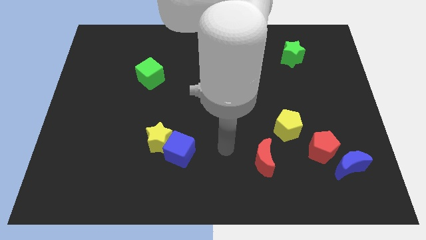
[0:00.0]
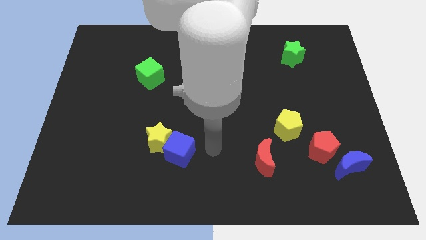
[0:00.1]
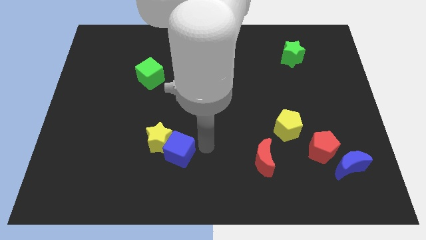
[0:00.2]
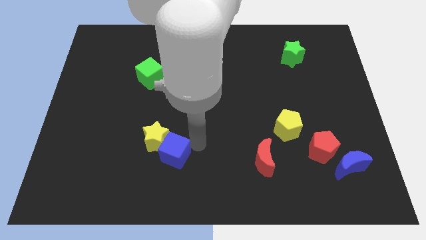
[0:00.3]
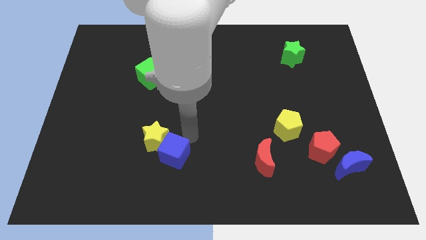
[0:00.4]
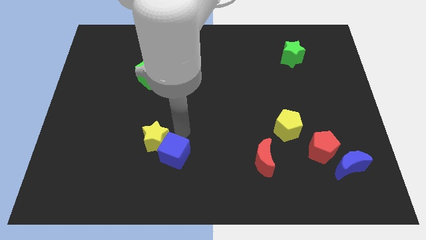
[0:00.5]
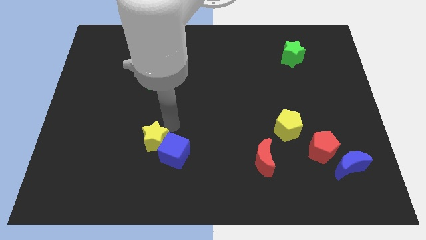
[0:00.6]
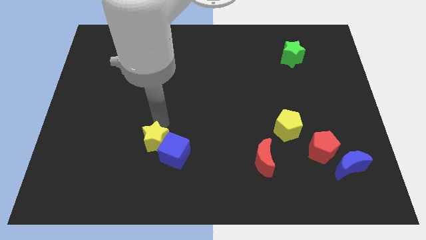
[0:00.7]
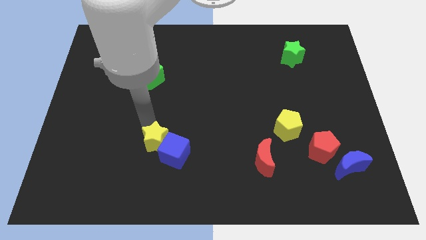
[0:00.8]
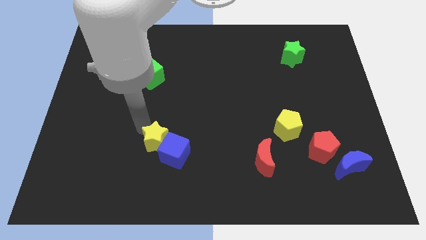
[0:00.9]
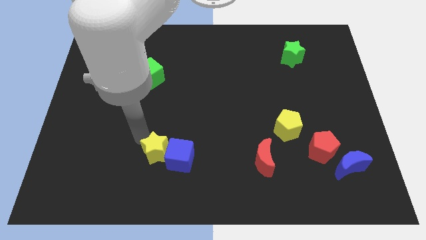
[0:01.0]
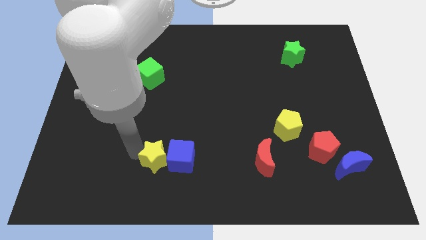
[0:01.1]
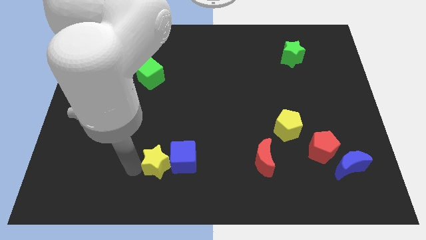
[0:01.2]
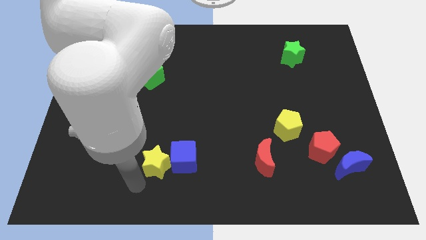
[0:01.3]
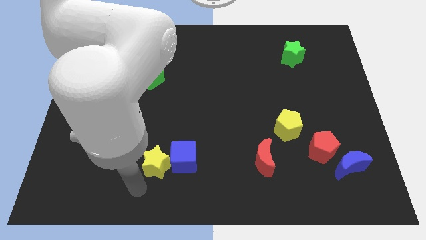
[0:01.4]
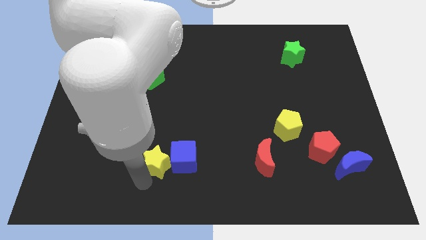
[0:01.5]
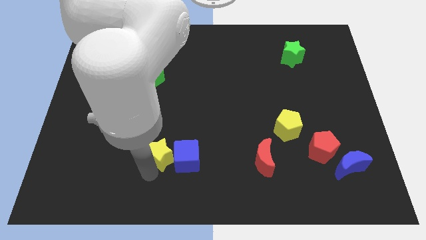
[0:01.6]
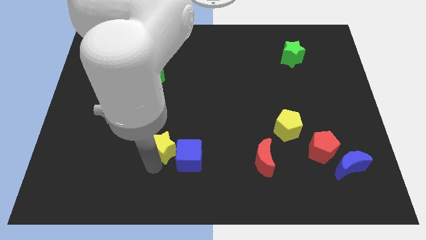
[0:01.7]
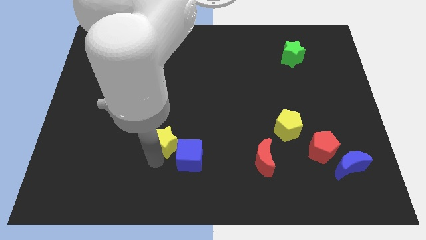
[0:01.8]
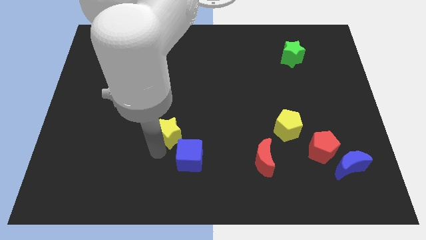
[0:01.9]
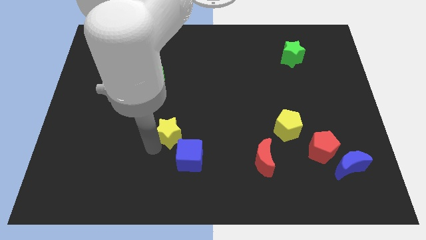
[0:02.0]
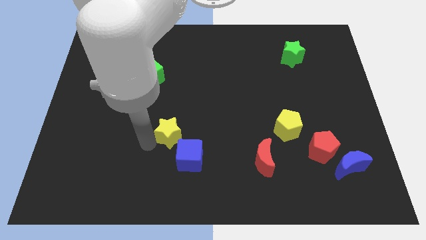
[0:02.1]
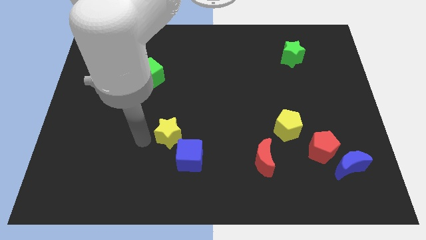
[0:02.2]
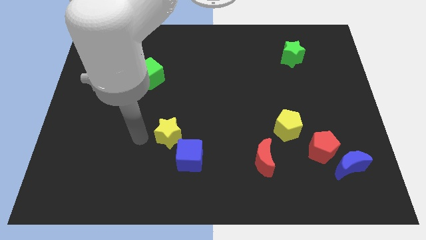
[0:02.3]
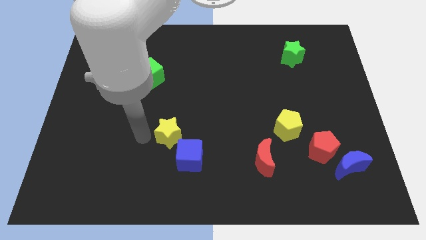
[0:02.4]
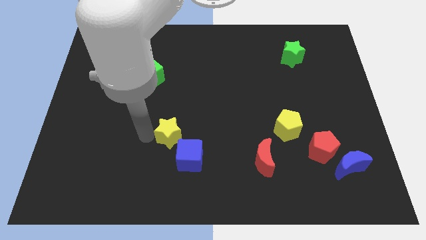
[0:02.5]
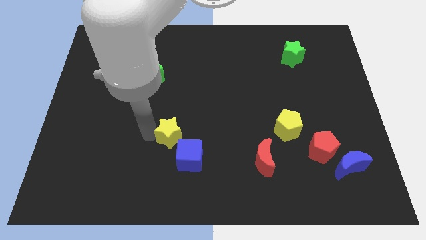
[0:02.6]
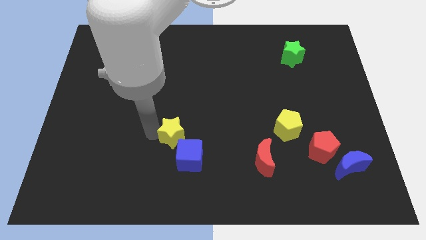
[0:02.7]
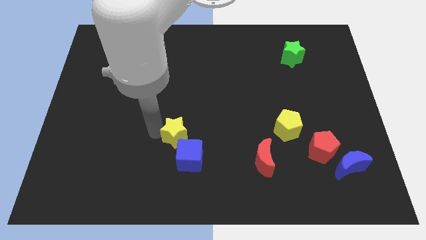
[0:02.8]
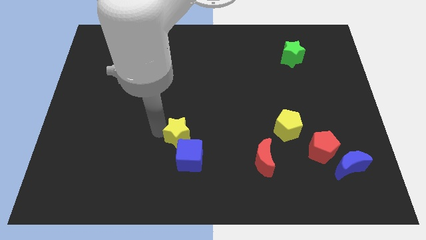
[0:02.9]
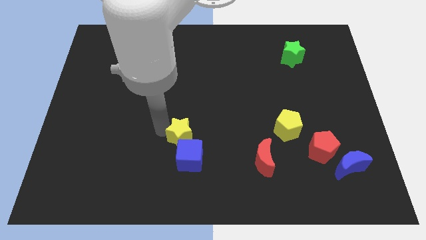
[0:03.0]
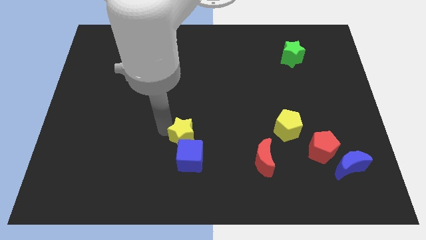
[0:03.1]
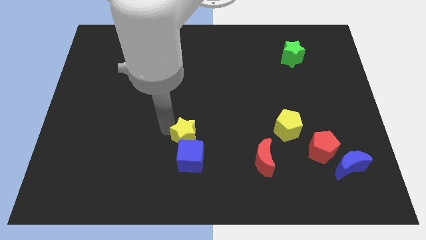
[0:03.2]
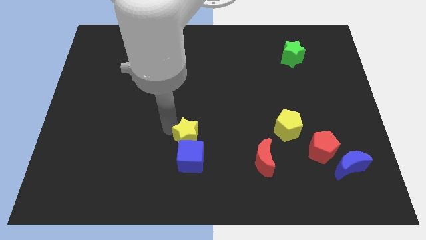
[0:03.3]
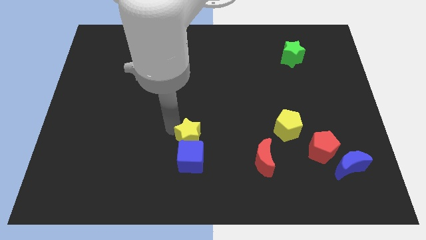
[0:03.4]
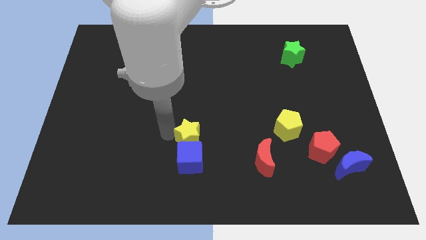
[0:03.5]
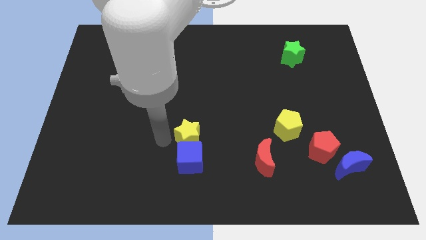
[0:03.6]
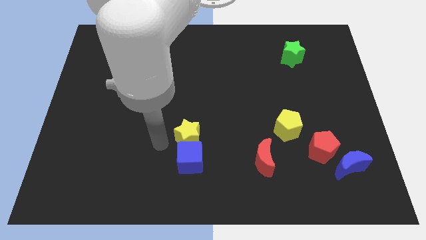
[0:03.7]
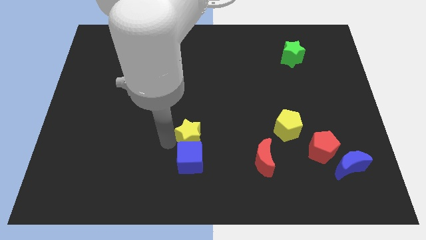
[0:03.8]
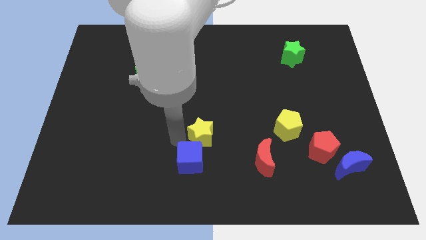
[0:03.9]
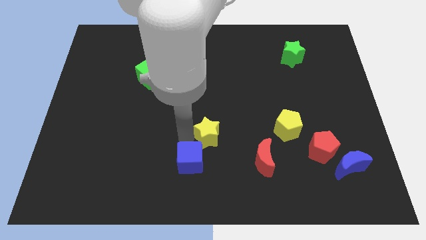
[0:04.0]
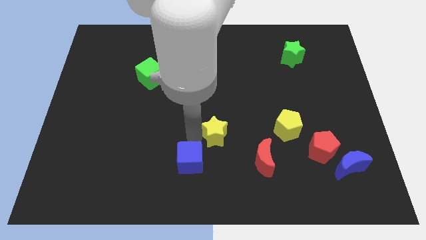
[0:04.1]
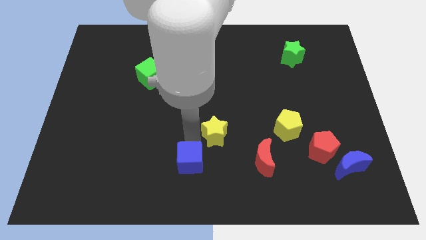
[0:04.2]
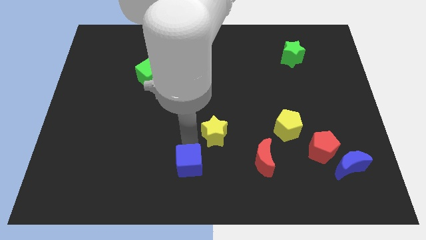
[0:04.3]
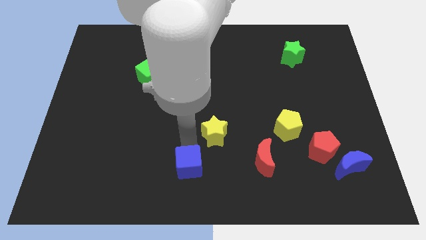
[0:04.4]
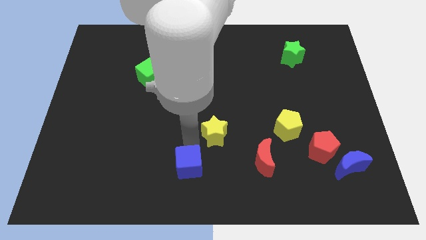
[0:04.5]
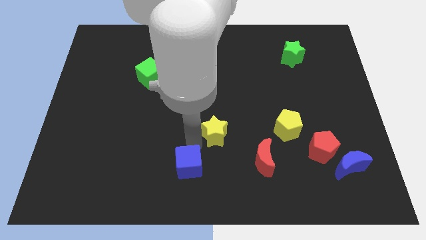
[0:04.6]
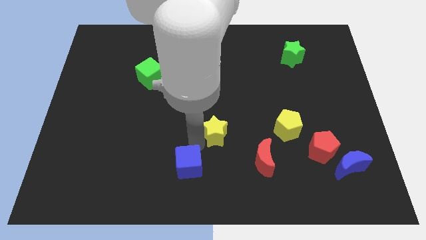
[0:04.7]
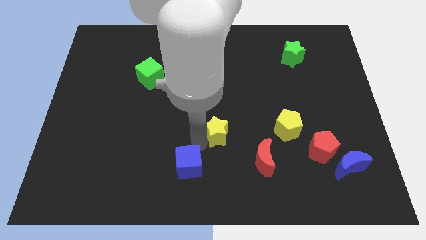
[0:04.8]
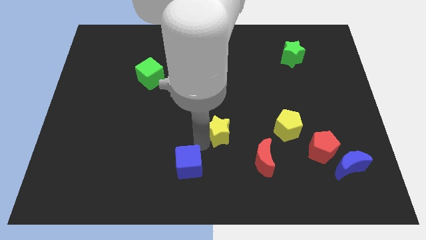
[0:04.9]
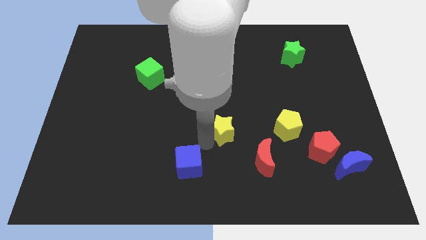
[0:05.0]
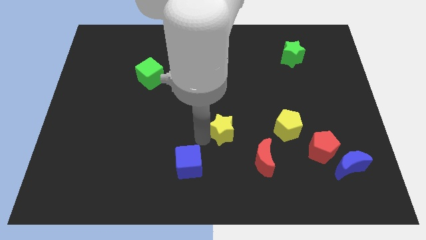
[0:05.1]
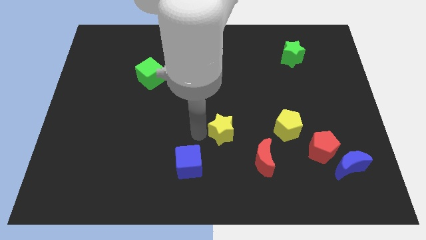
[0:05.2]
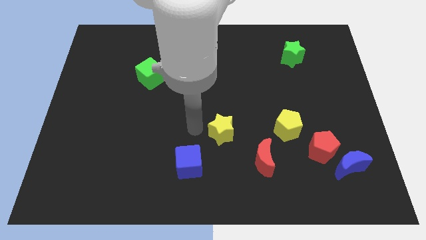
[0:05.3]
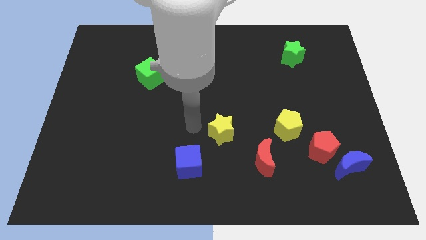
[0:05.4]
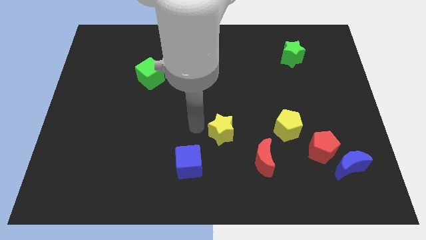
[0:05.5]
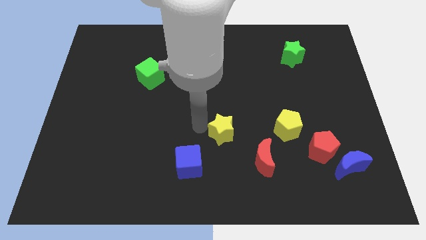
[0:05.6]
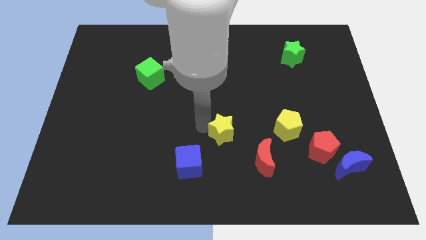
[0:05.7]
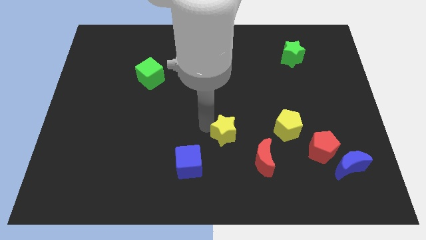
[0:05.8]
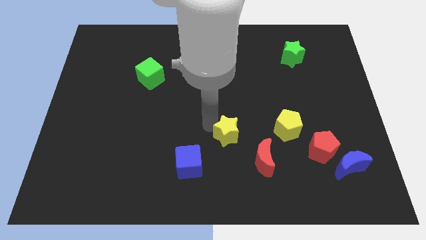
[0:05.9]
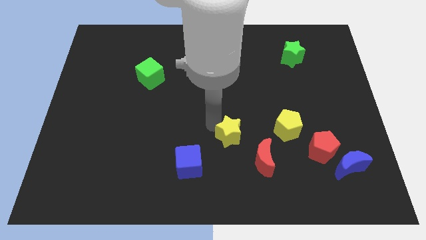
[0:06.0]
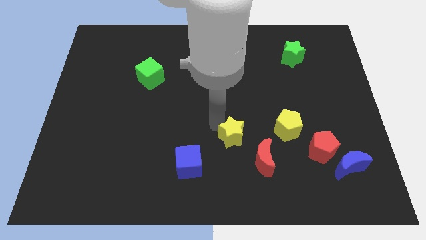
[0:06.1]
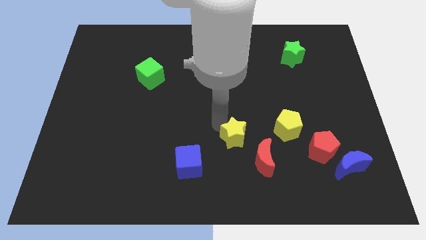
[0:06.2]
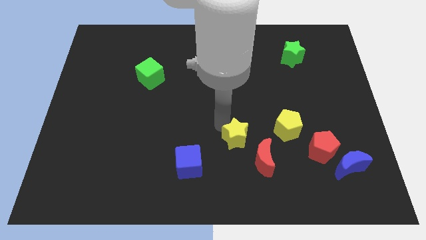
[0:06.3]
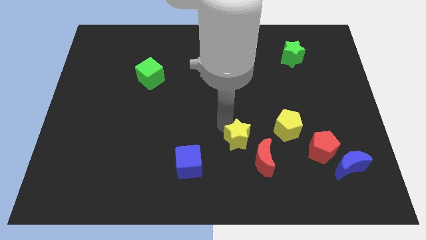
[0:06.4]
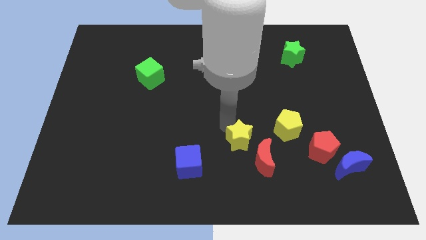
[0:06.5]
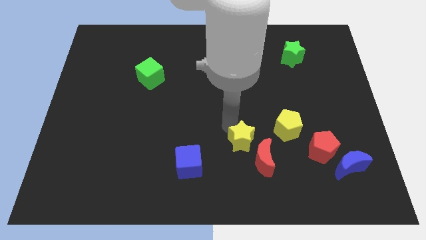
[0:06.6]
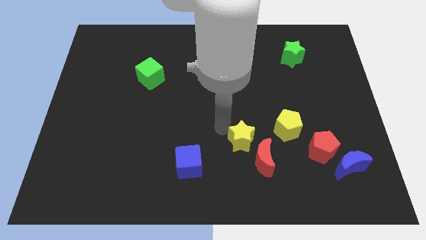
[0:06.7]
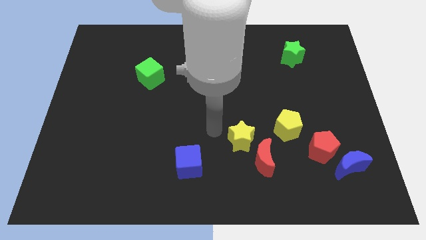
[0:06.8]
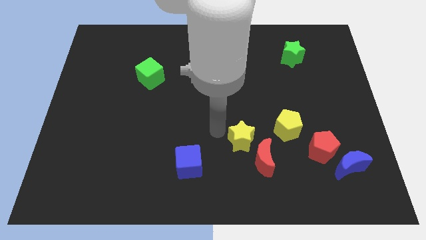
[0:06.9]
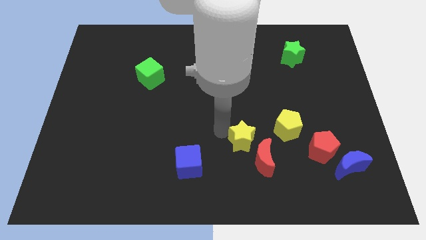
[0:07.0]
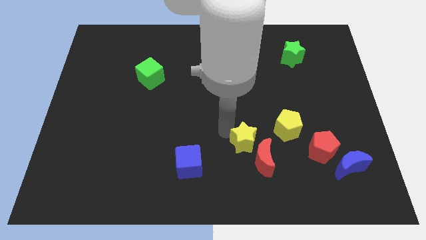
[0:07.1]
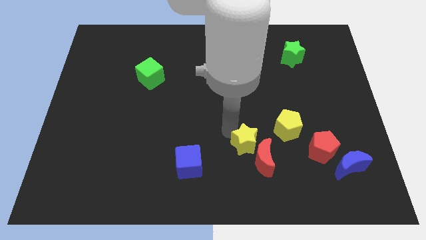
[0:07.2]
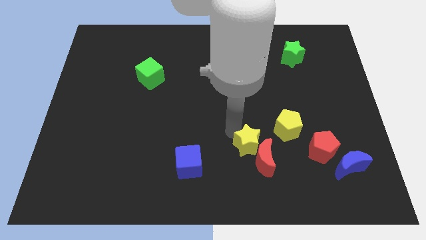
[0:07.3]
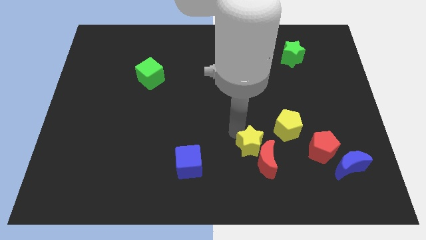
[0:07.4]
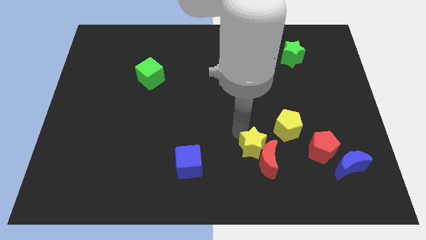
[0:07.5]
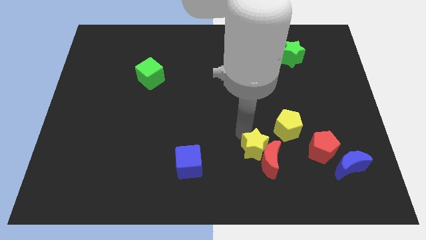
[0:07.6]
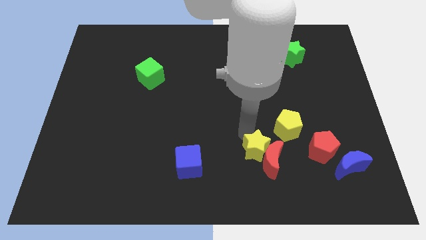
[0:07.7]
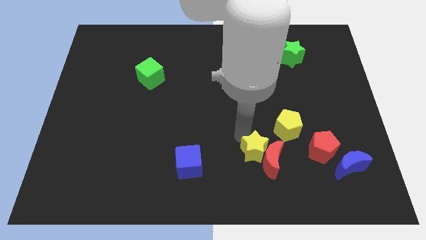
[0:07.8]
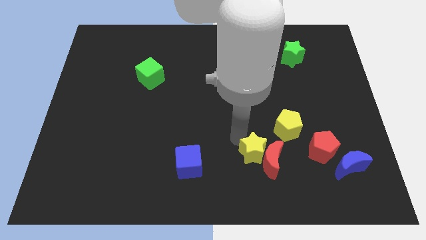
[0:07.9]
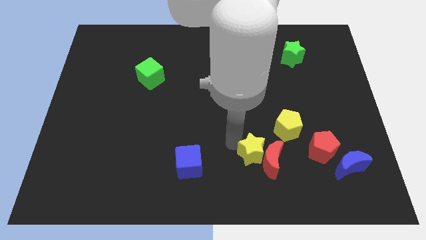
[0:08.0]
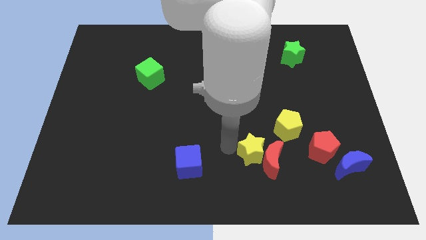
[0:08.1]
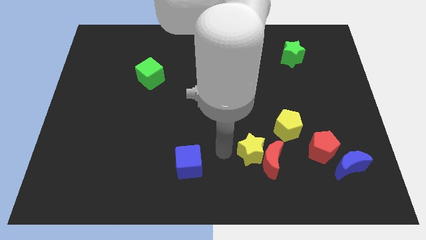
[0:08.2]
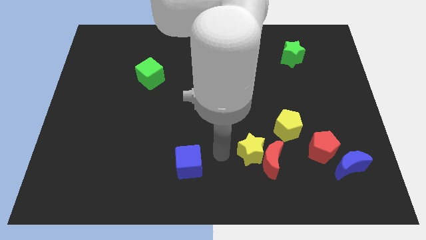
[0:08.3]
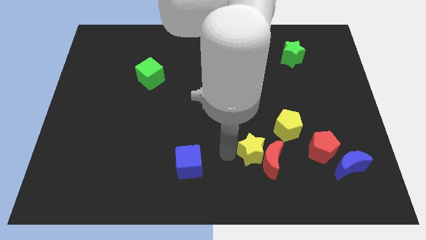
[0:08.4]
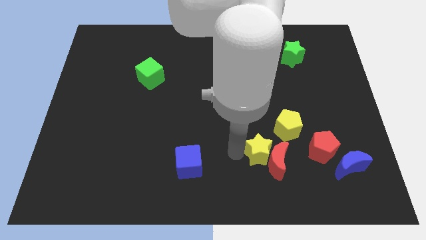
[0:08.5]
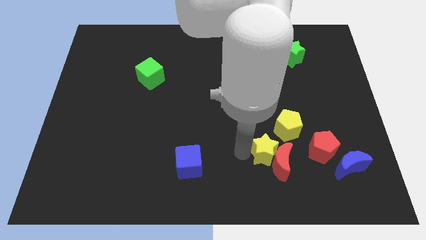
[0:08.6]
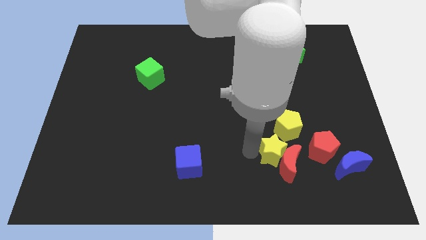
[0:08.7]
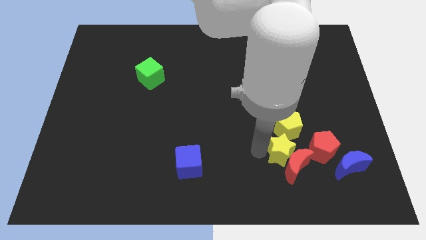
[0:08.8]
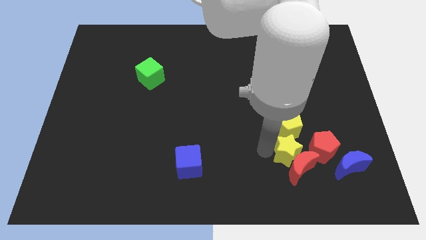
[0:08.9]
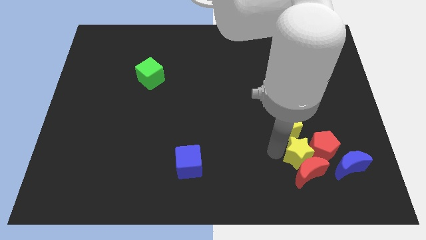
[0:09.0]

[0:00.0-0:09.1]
push the yellow star close to the red pentagon
